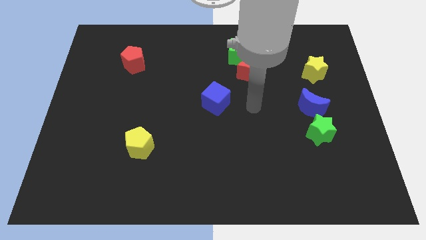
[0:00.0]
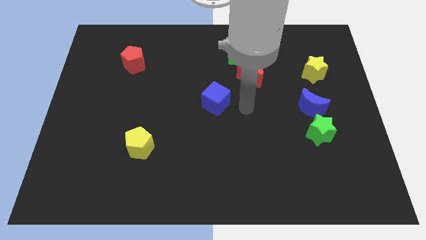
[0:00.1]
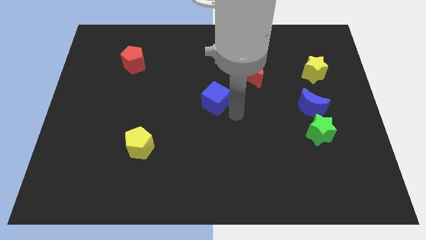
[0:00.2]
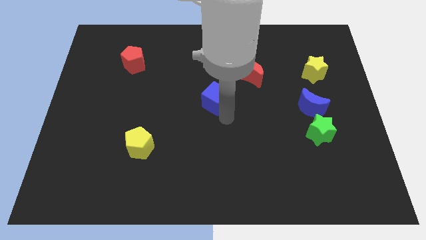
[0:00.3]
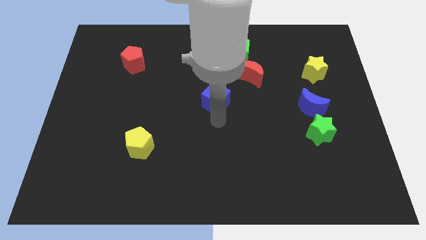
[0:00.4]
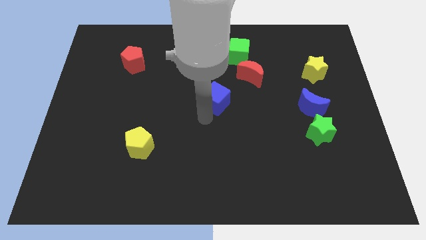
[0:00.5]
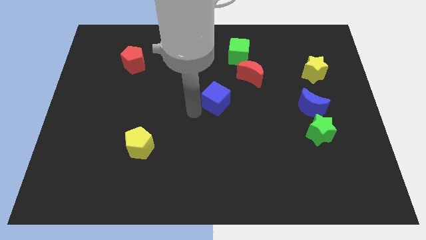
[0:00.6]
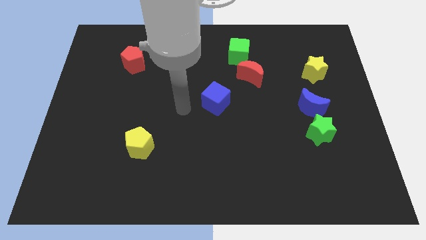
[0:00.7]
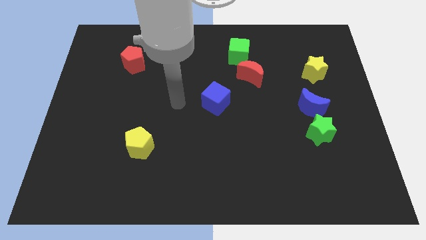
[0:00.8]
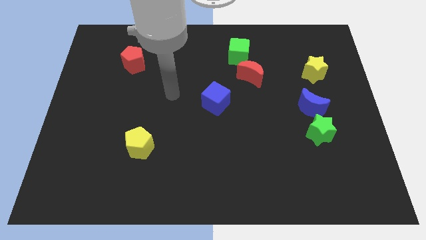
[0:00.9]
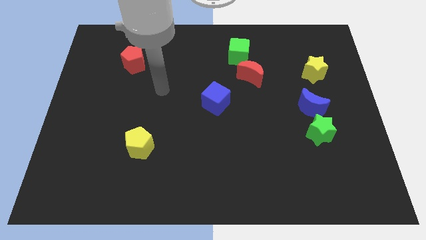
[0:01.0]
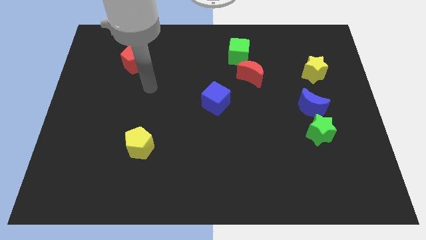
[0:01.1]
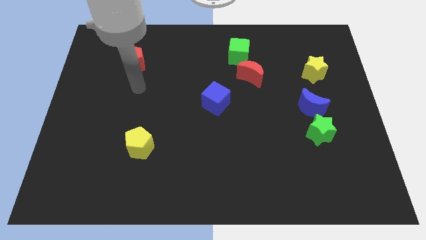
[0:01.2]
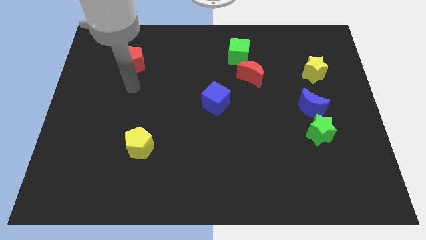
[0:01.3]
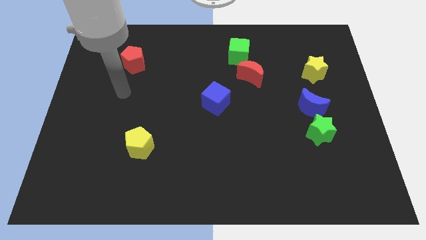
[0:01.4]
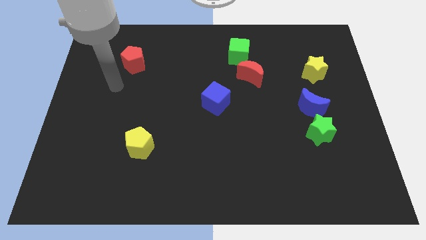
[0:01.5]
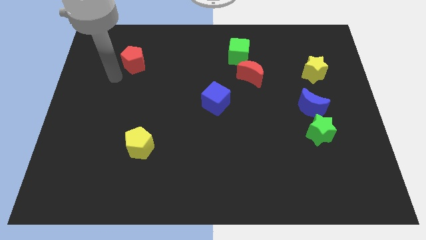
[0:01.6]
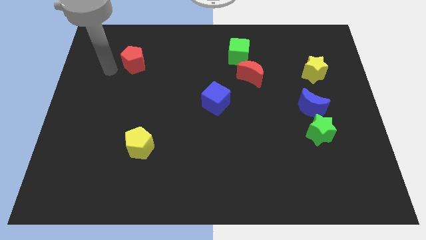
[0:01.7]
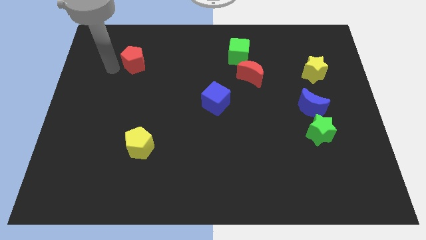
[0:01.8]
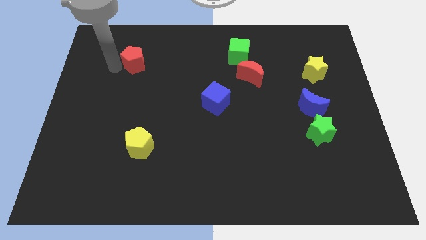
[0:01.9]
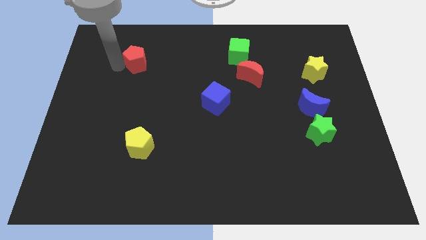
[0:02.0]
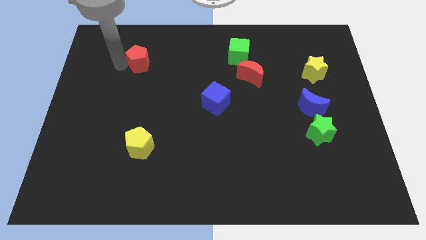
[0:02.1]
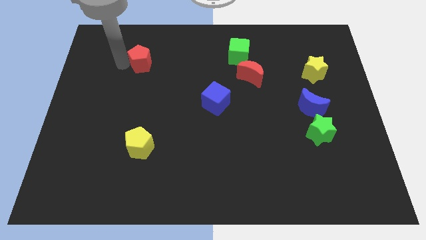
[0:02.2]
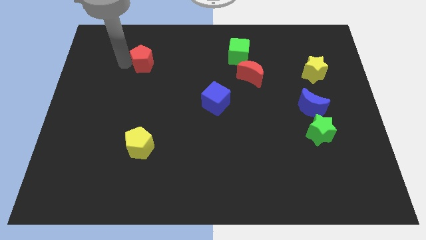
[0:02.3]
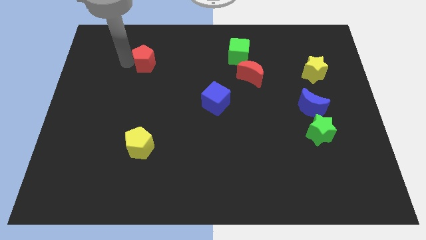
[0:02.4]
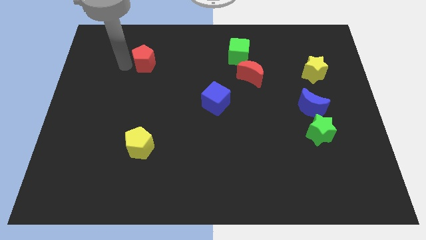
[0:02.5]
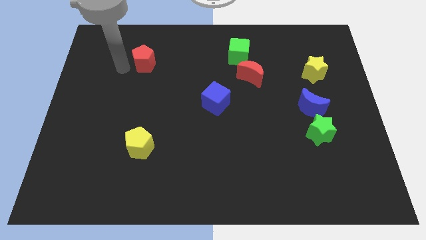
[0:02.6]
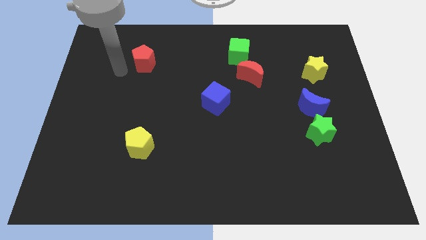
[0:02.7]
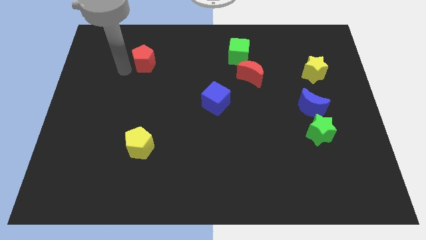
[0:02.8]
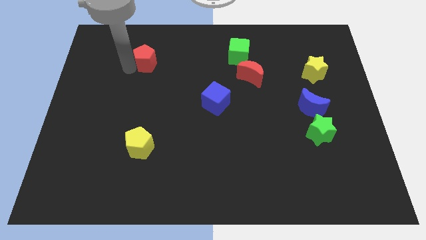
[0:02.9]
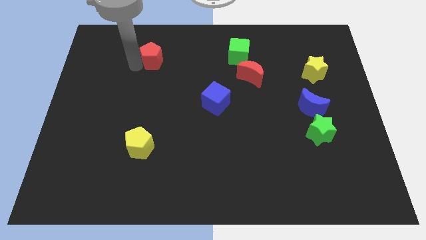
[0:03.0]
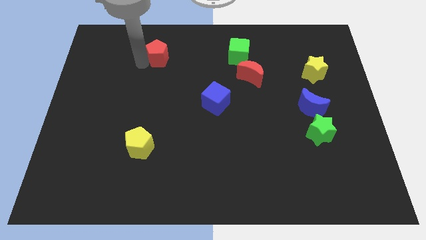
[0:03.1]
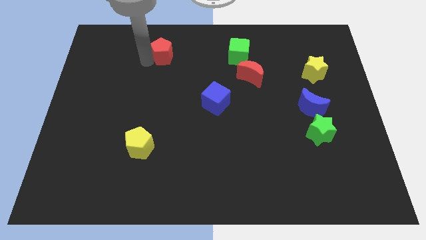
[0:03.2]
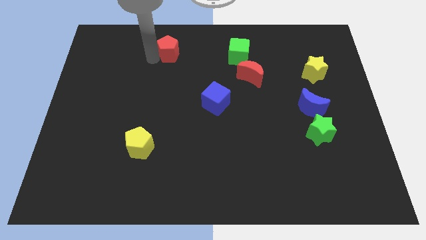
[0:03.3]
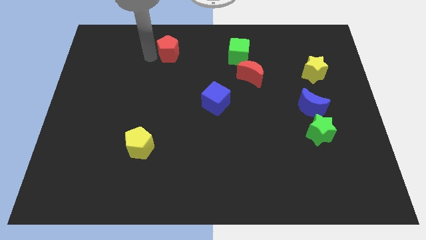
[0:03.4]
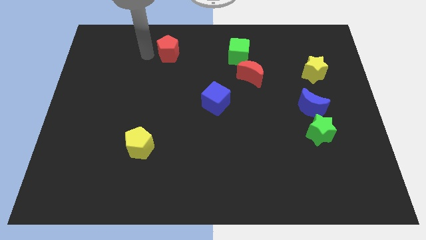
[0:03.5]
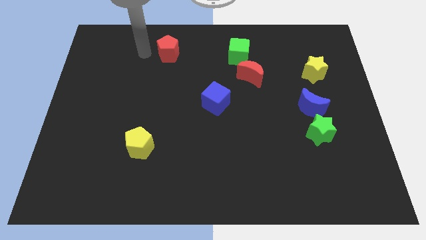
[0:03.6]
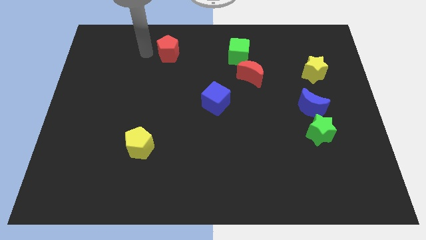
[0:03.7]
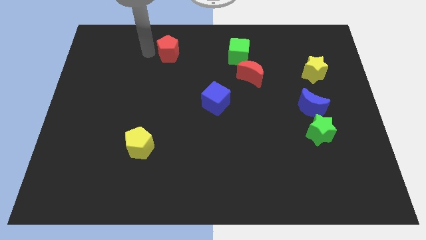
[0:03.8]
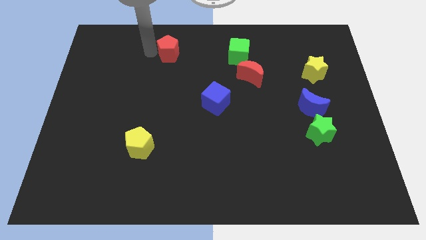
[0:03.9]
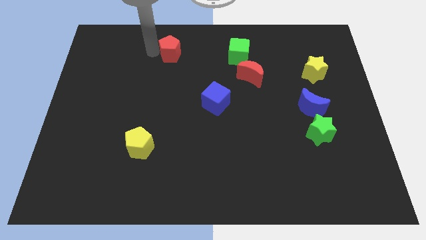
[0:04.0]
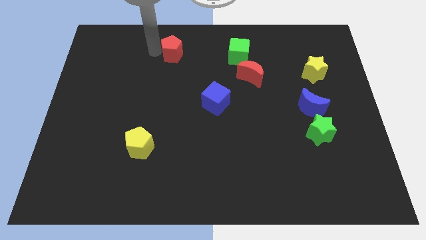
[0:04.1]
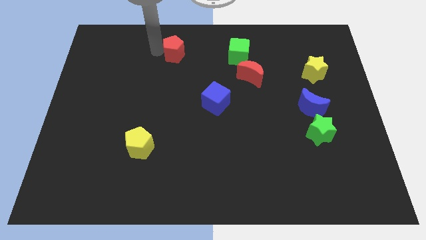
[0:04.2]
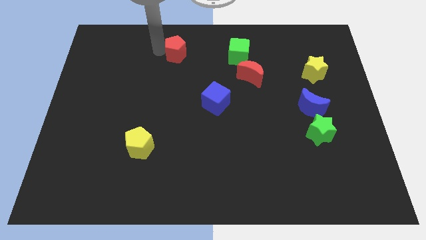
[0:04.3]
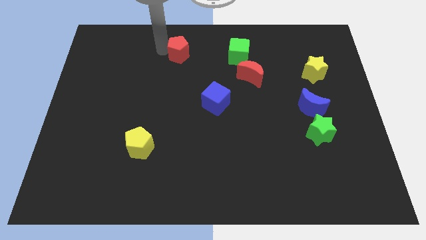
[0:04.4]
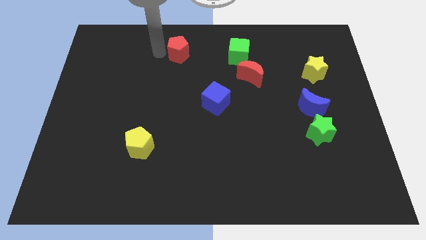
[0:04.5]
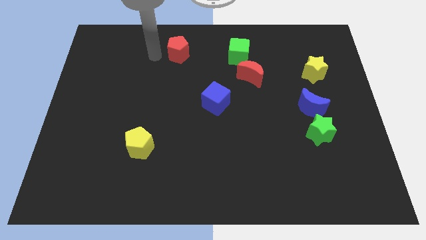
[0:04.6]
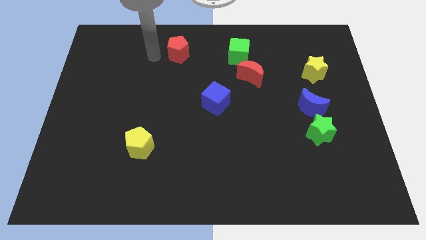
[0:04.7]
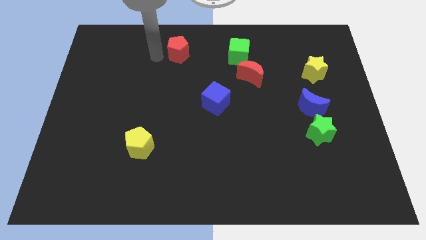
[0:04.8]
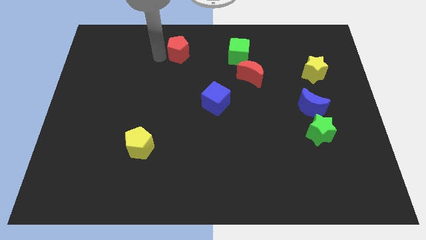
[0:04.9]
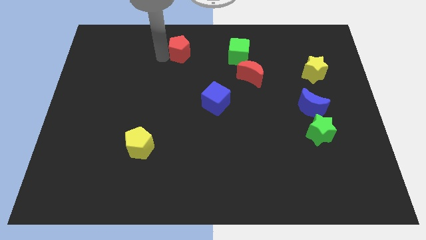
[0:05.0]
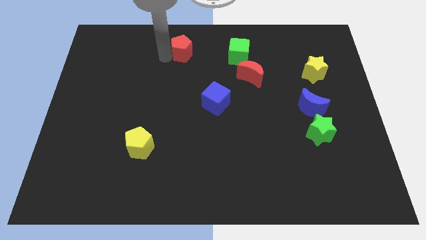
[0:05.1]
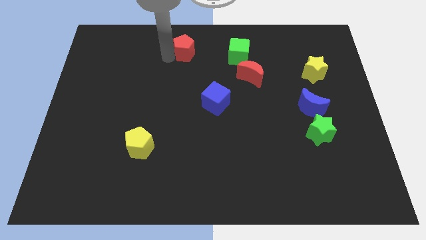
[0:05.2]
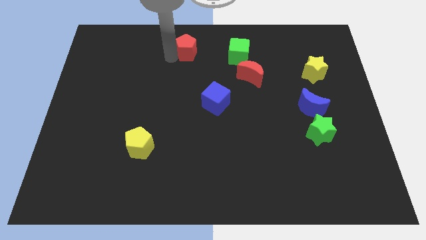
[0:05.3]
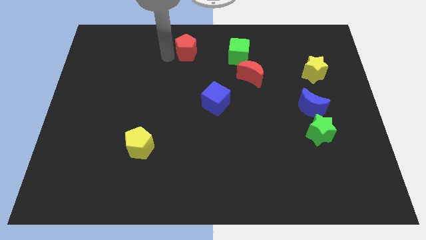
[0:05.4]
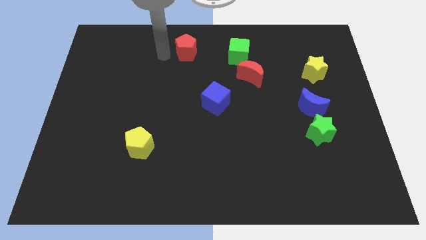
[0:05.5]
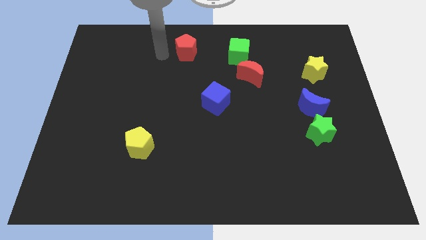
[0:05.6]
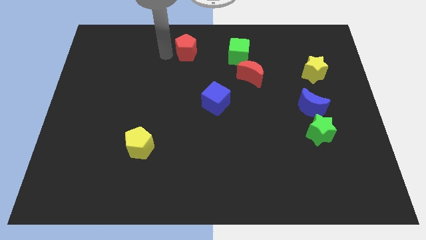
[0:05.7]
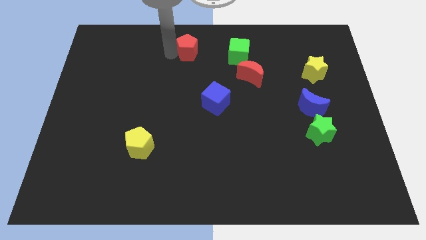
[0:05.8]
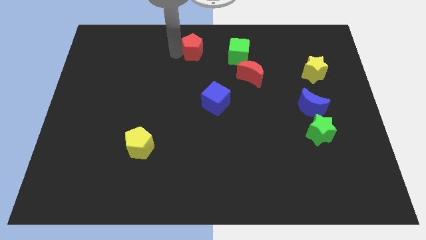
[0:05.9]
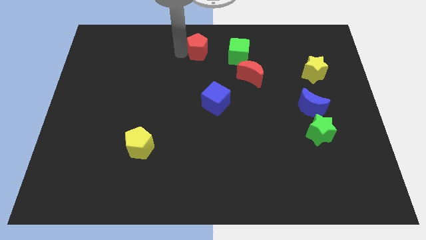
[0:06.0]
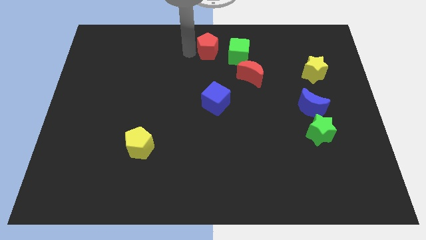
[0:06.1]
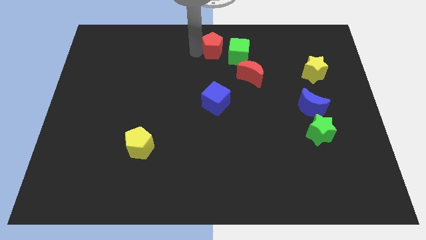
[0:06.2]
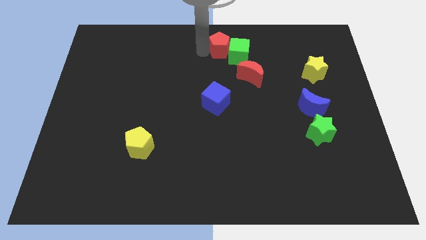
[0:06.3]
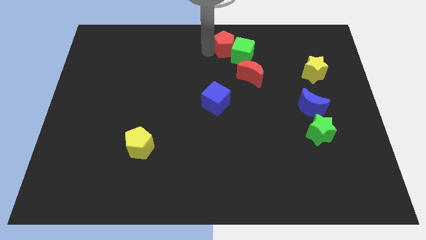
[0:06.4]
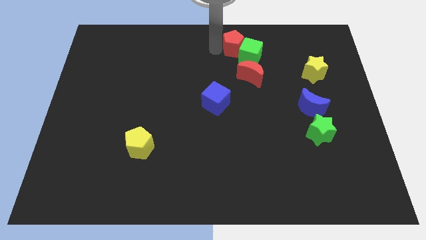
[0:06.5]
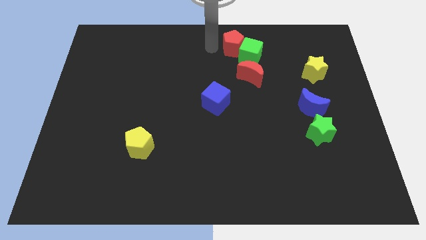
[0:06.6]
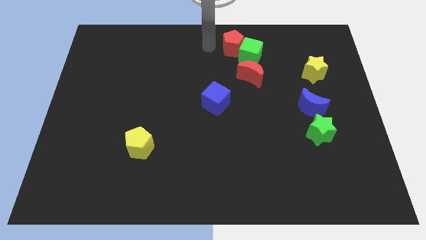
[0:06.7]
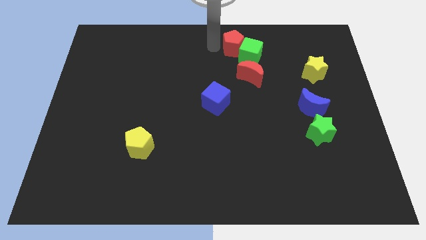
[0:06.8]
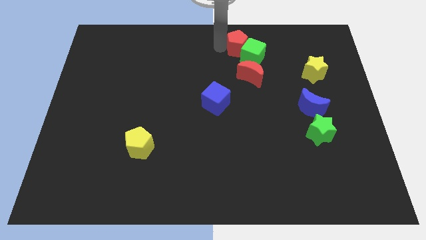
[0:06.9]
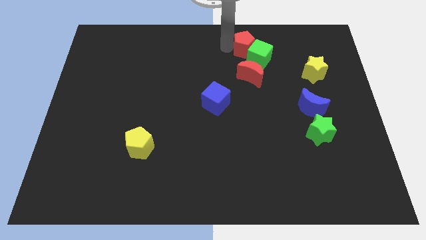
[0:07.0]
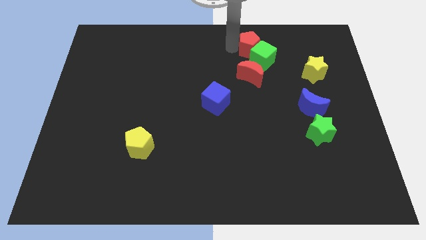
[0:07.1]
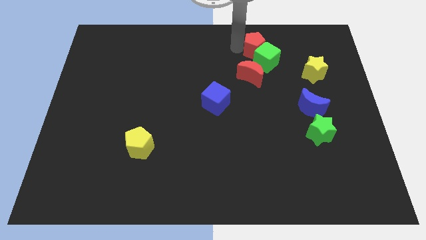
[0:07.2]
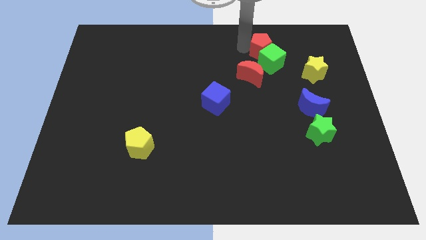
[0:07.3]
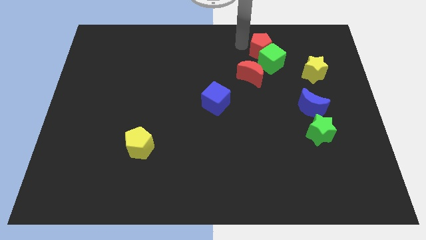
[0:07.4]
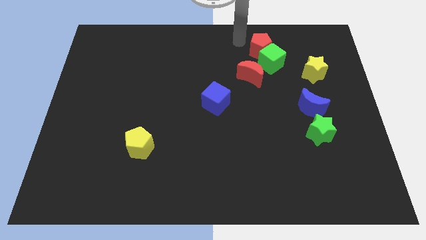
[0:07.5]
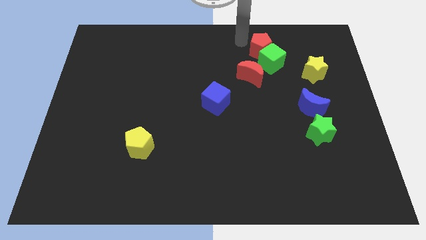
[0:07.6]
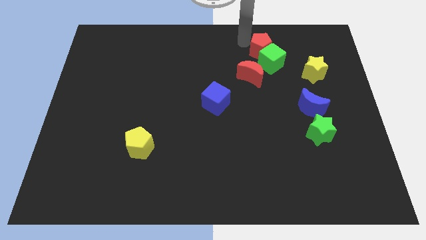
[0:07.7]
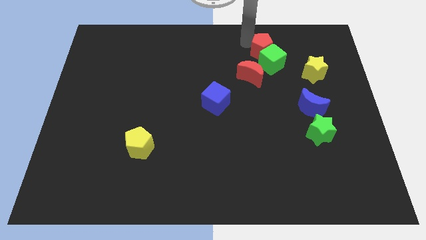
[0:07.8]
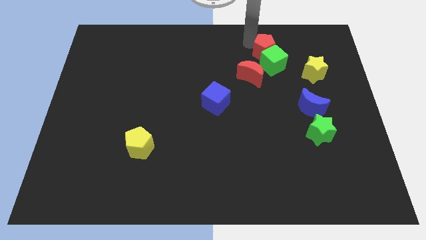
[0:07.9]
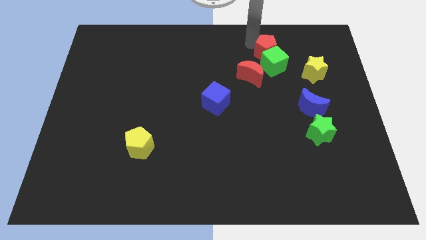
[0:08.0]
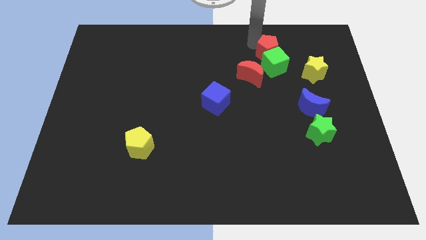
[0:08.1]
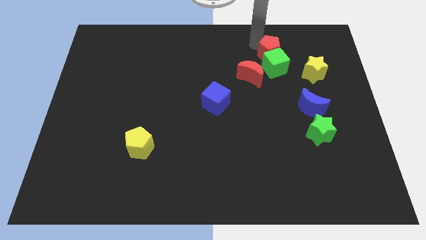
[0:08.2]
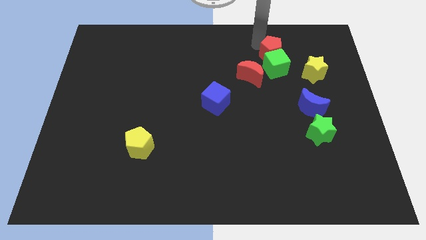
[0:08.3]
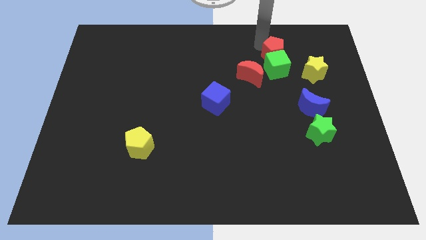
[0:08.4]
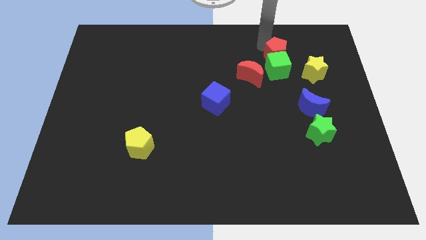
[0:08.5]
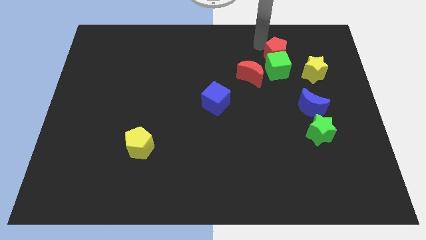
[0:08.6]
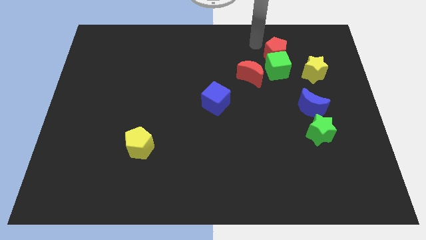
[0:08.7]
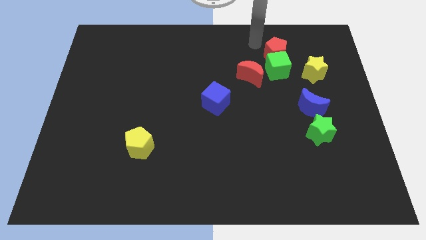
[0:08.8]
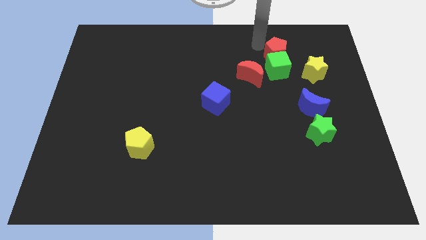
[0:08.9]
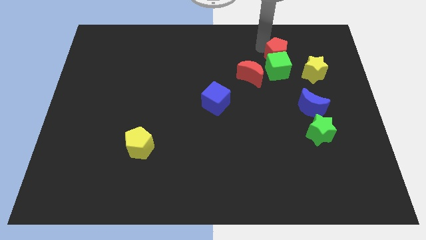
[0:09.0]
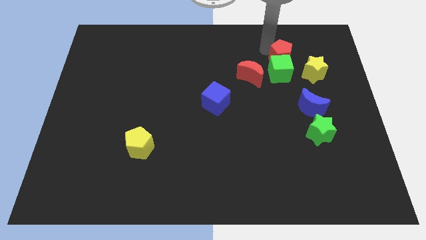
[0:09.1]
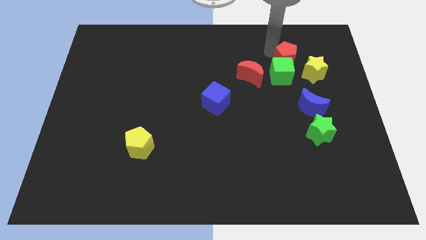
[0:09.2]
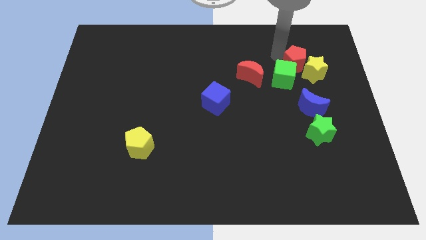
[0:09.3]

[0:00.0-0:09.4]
put the red pentagon next to the yellow star
